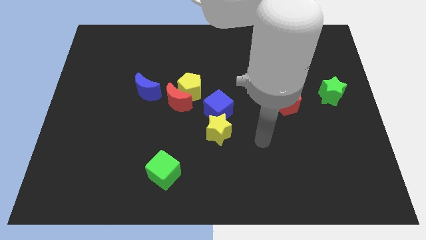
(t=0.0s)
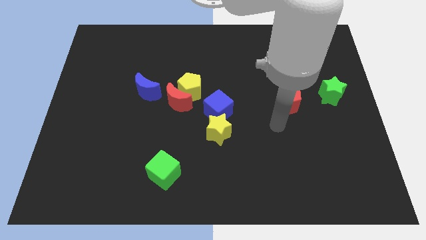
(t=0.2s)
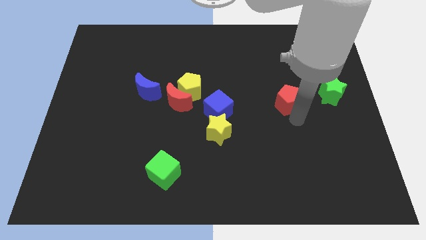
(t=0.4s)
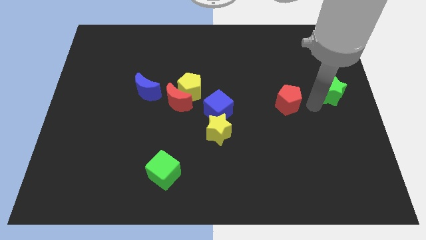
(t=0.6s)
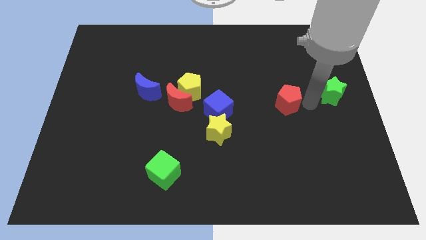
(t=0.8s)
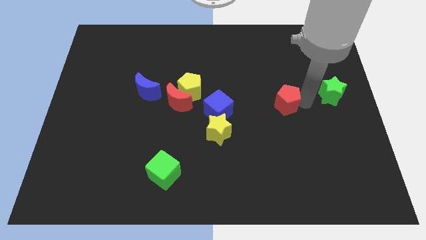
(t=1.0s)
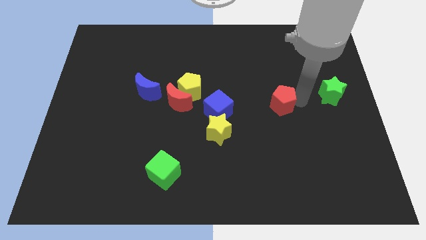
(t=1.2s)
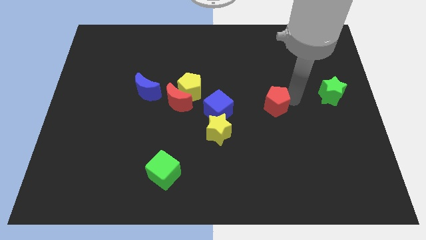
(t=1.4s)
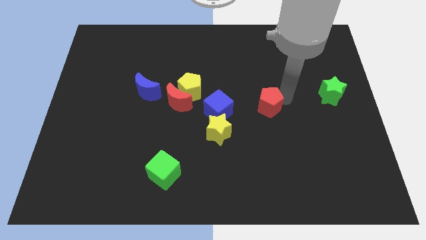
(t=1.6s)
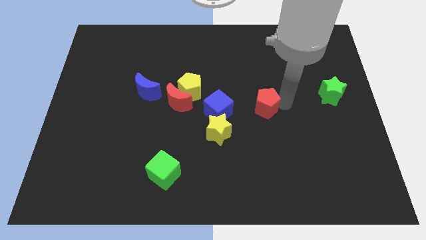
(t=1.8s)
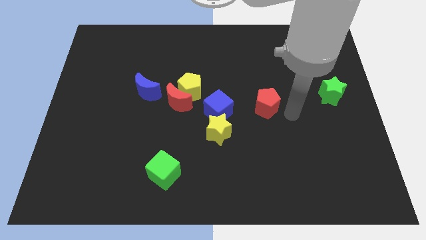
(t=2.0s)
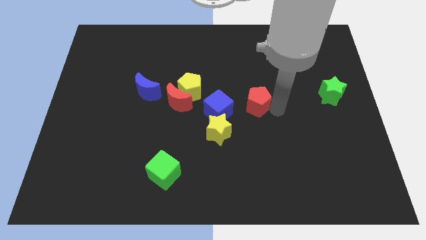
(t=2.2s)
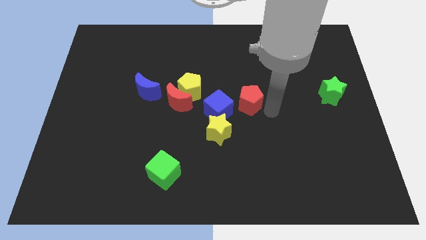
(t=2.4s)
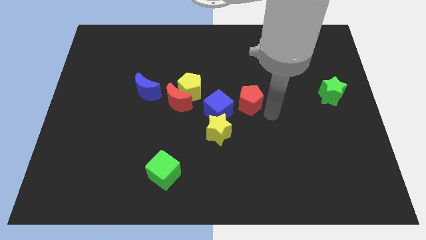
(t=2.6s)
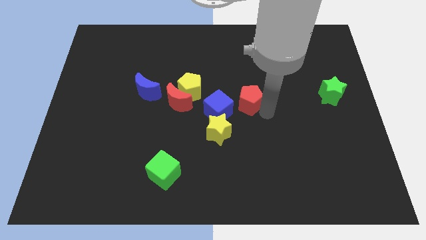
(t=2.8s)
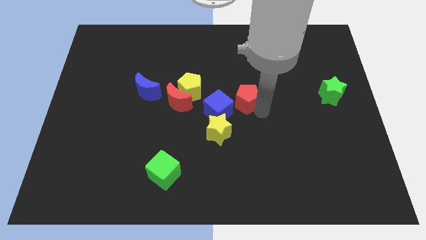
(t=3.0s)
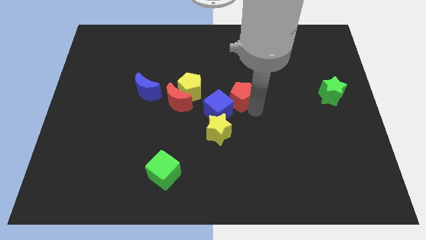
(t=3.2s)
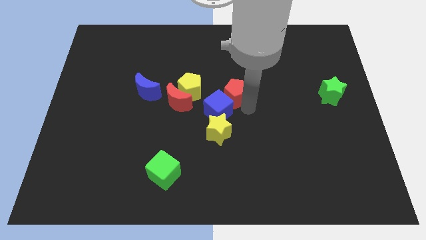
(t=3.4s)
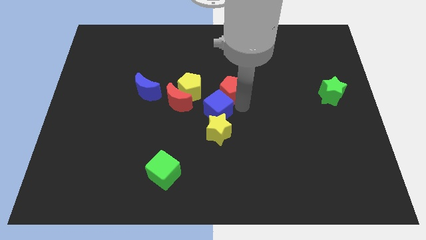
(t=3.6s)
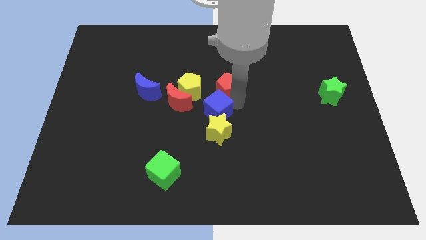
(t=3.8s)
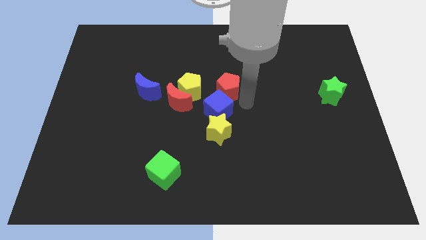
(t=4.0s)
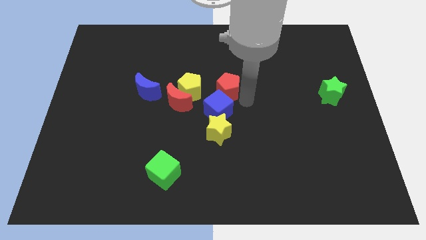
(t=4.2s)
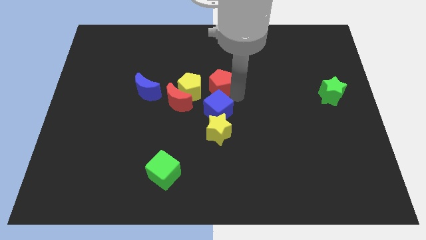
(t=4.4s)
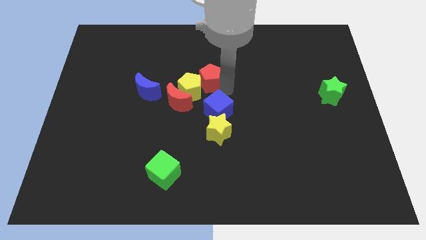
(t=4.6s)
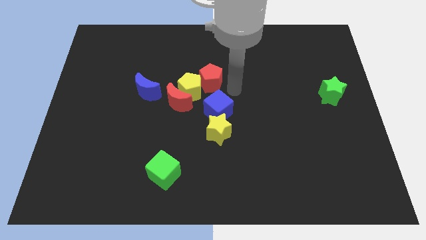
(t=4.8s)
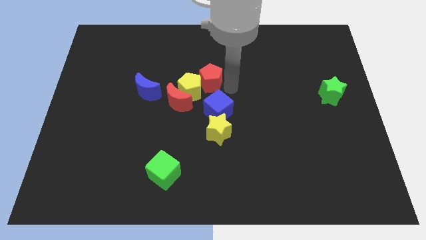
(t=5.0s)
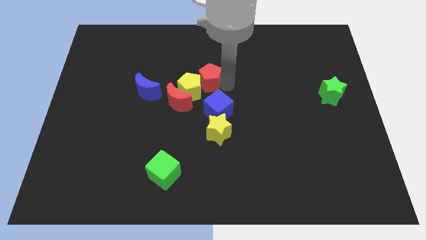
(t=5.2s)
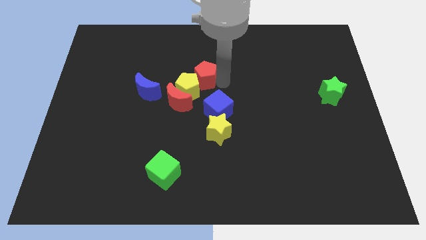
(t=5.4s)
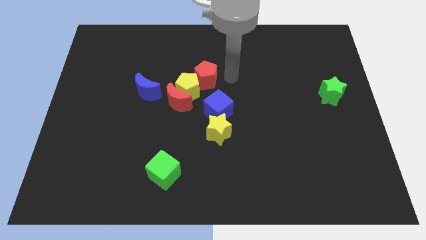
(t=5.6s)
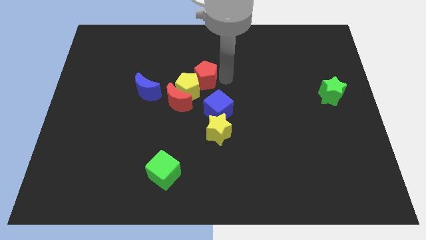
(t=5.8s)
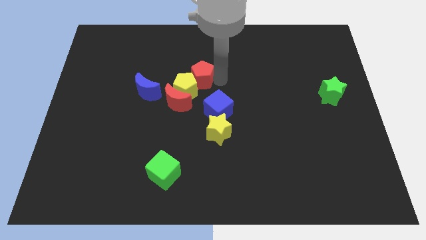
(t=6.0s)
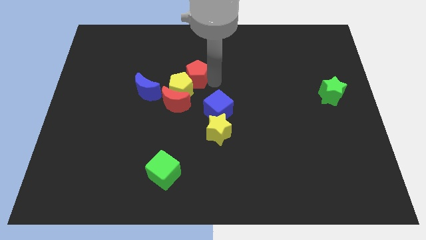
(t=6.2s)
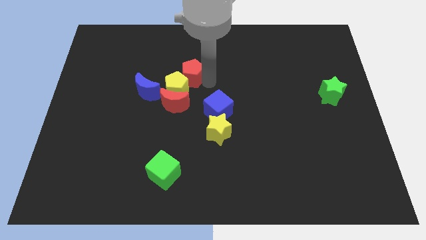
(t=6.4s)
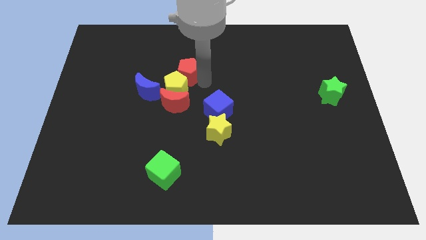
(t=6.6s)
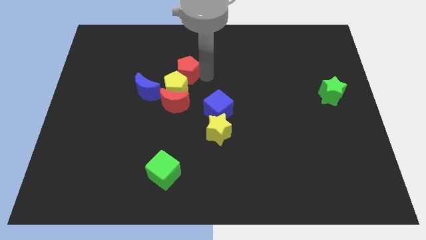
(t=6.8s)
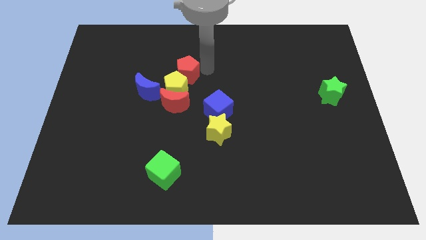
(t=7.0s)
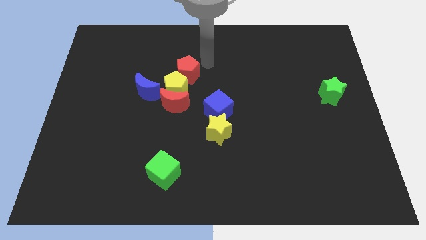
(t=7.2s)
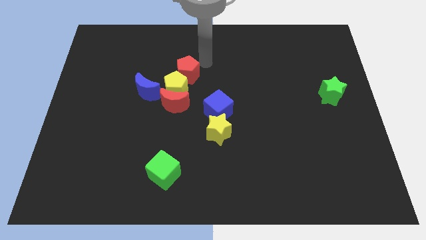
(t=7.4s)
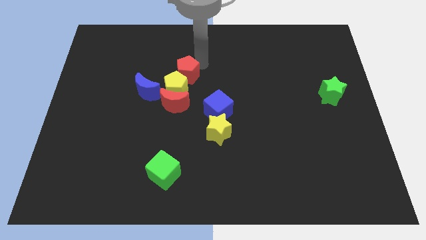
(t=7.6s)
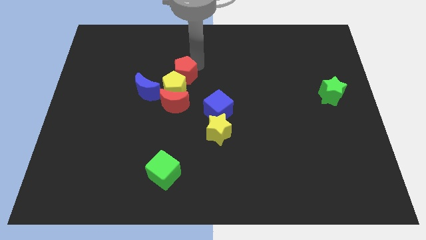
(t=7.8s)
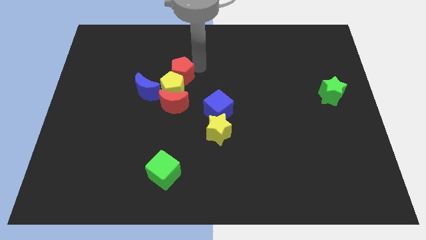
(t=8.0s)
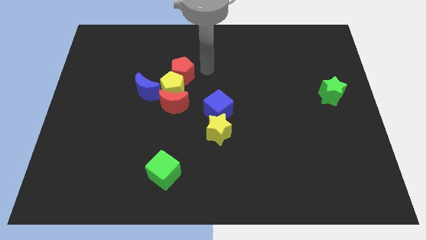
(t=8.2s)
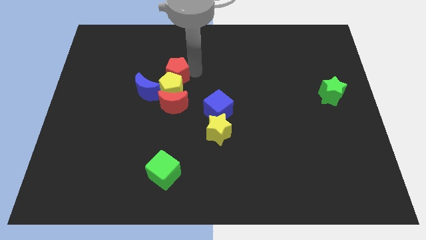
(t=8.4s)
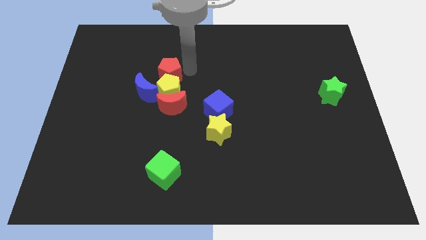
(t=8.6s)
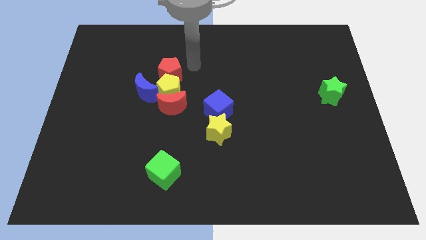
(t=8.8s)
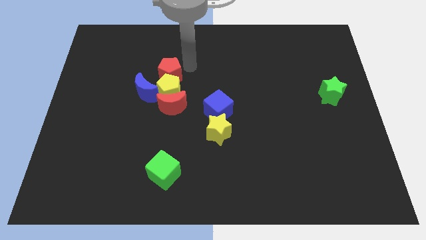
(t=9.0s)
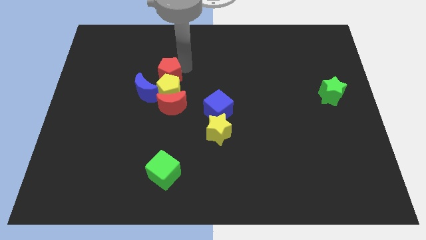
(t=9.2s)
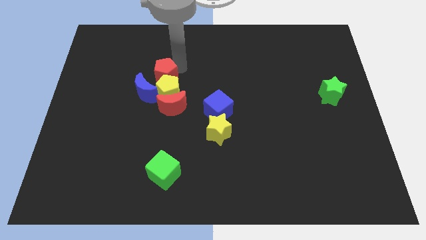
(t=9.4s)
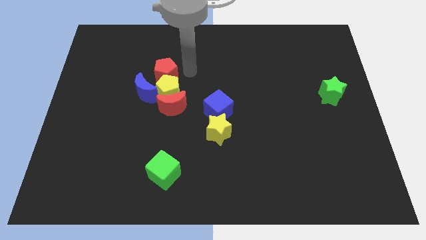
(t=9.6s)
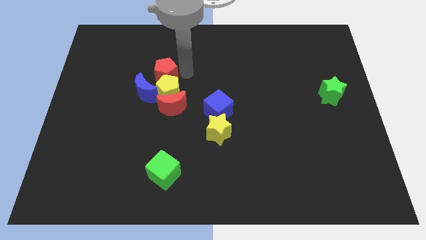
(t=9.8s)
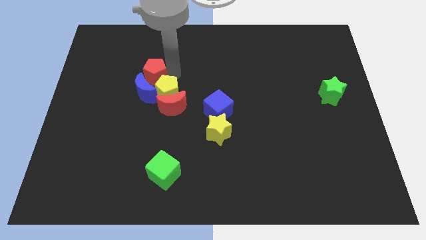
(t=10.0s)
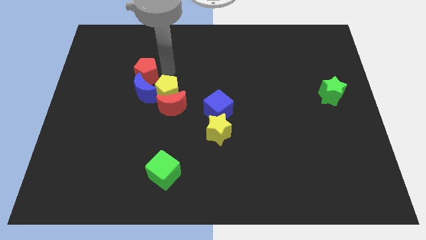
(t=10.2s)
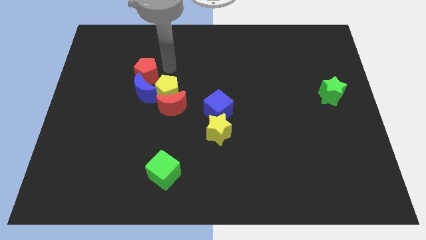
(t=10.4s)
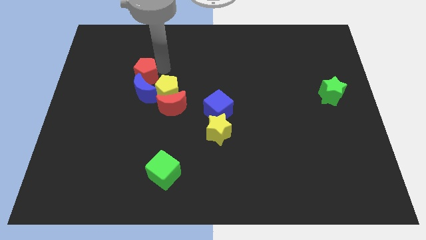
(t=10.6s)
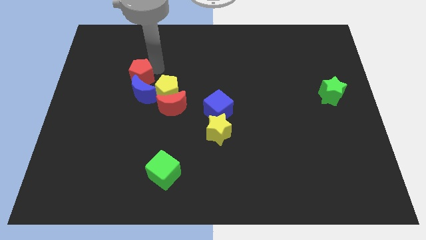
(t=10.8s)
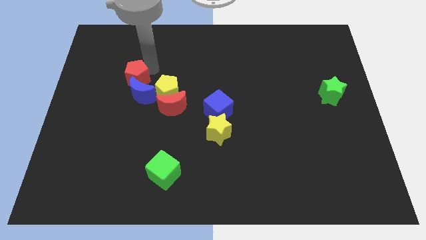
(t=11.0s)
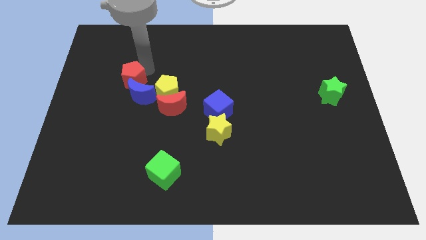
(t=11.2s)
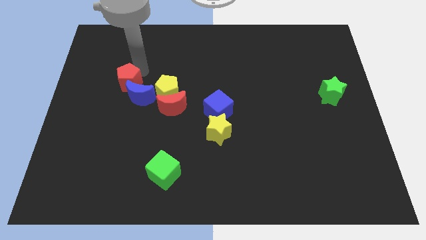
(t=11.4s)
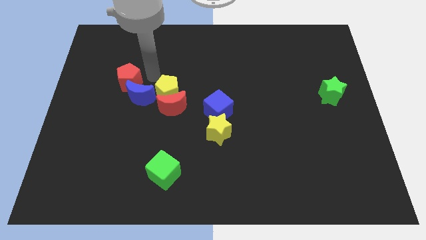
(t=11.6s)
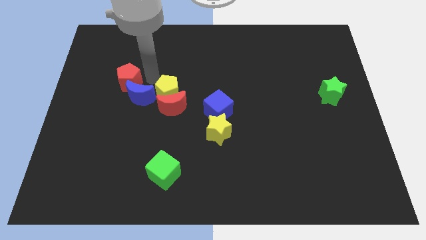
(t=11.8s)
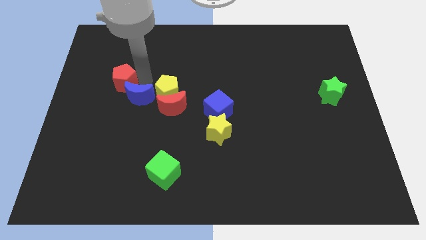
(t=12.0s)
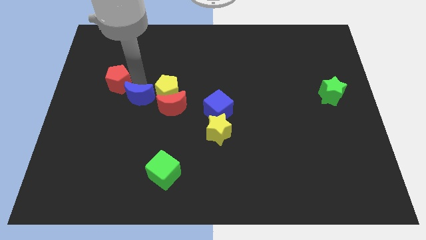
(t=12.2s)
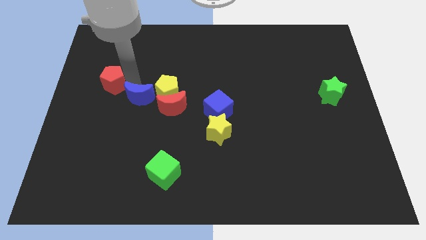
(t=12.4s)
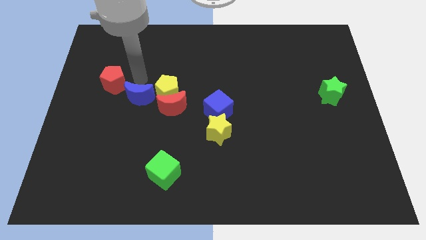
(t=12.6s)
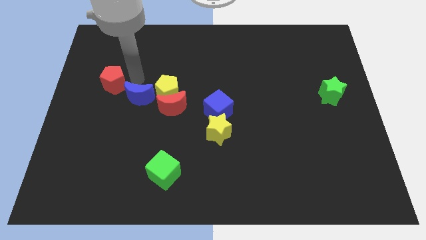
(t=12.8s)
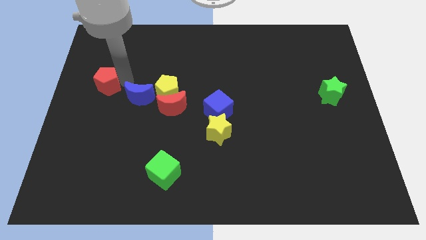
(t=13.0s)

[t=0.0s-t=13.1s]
move the red pentagon to the left side
